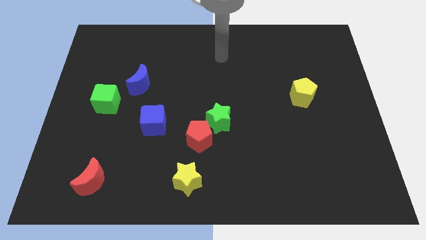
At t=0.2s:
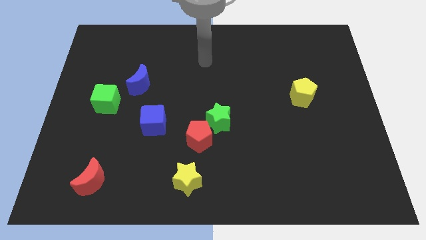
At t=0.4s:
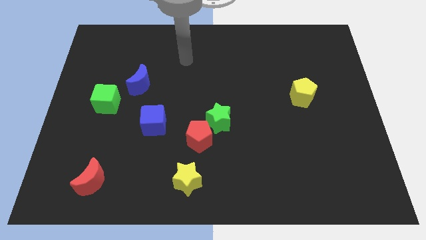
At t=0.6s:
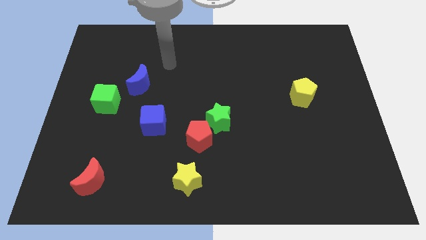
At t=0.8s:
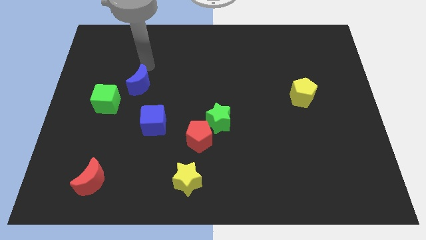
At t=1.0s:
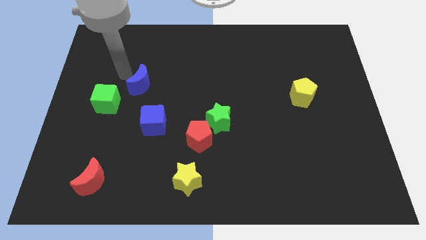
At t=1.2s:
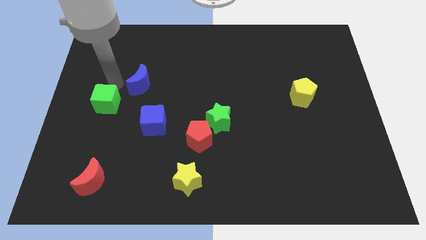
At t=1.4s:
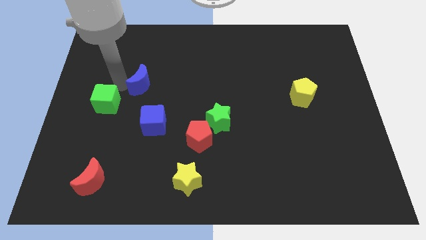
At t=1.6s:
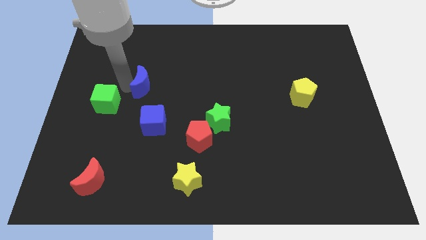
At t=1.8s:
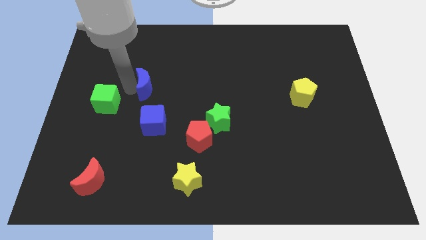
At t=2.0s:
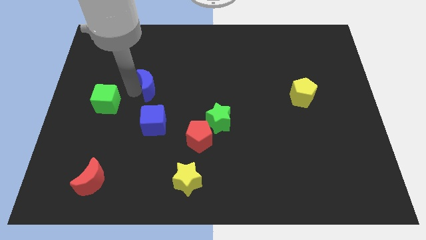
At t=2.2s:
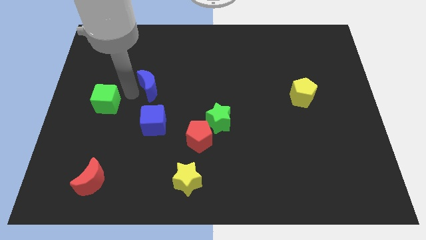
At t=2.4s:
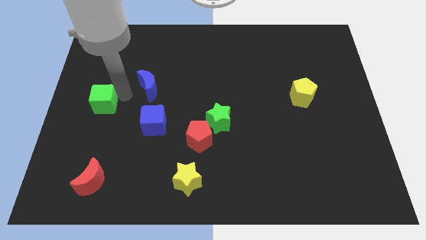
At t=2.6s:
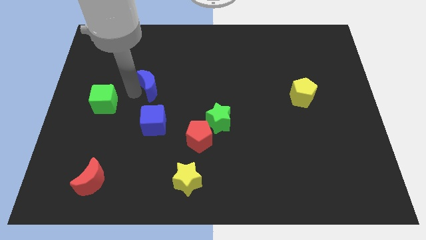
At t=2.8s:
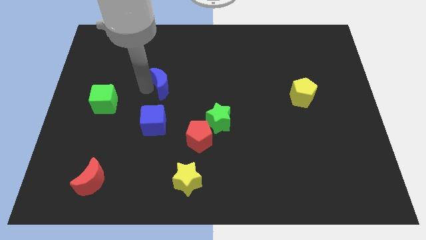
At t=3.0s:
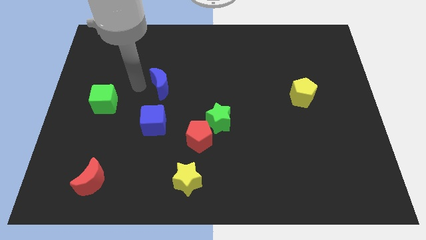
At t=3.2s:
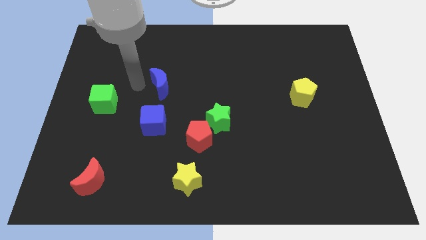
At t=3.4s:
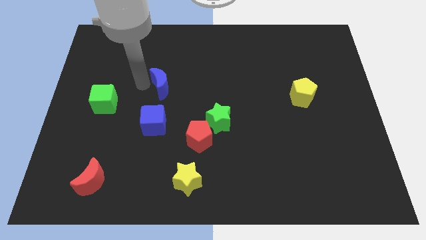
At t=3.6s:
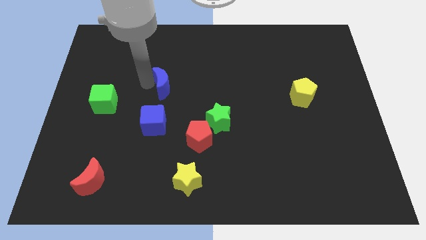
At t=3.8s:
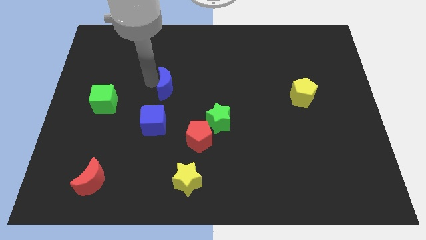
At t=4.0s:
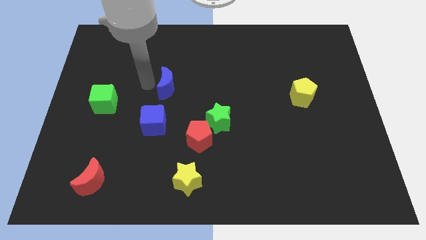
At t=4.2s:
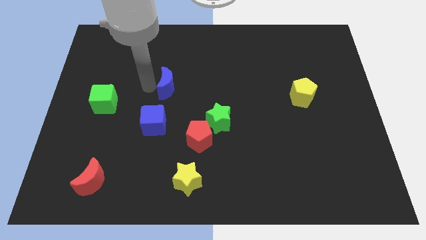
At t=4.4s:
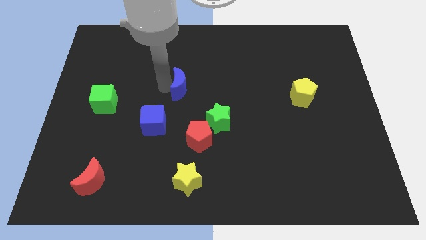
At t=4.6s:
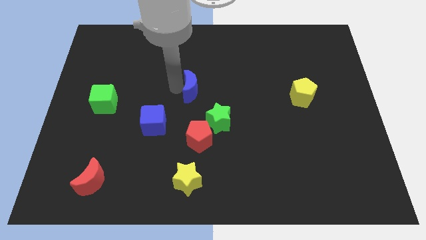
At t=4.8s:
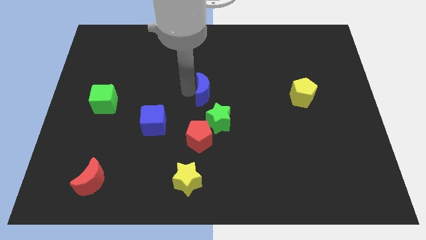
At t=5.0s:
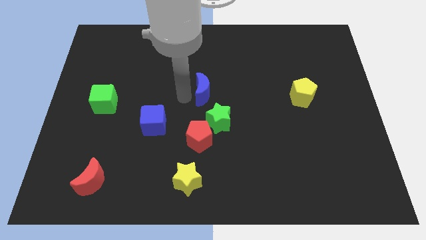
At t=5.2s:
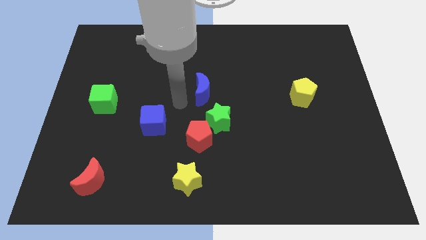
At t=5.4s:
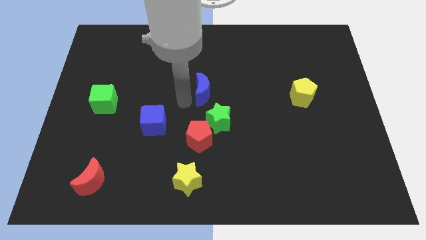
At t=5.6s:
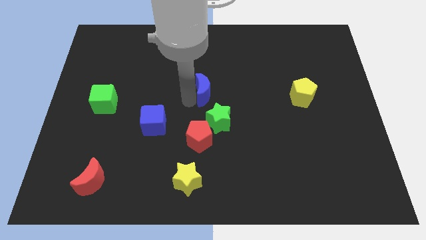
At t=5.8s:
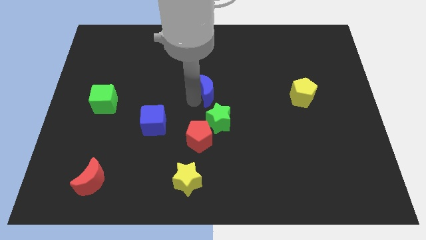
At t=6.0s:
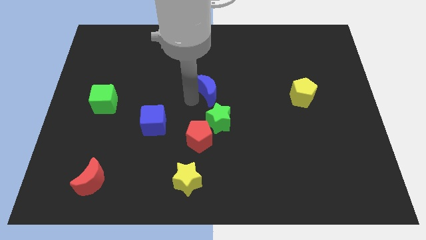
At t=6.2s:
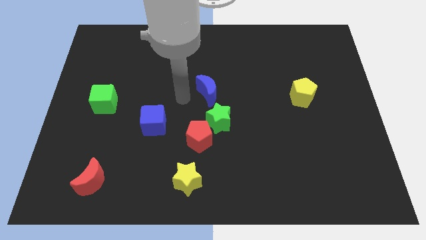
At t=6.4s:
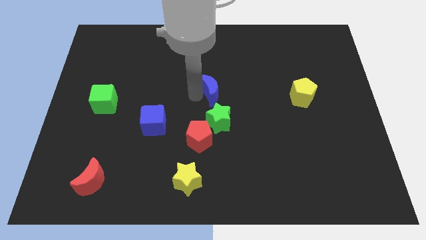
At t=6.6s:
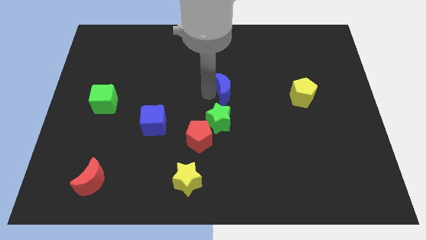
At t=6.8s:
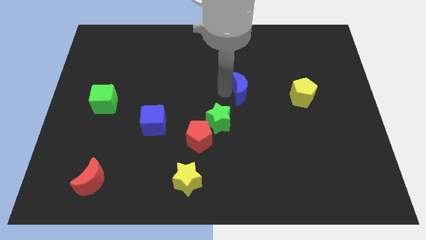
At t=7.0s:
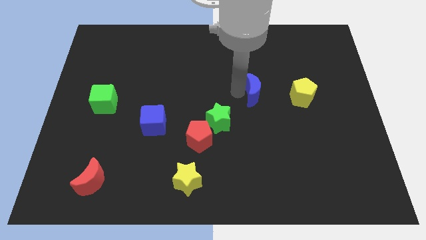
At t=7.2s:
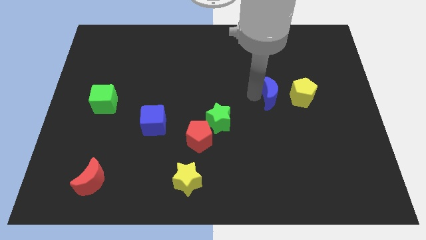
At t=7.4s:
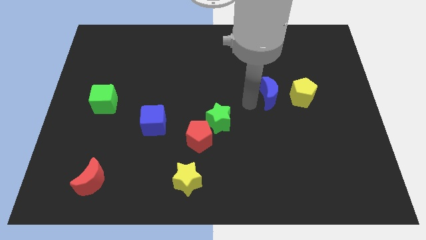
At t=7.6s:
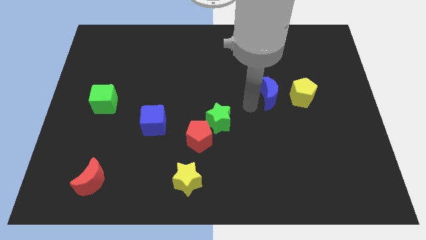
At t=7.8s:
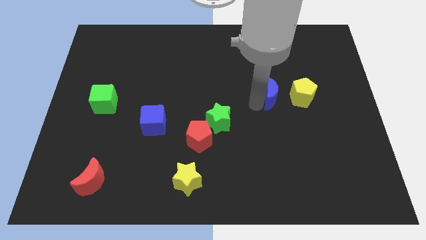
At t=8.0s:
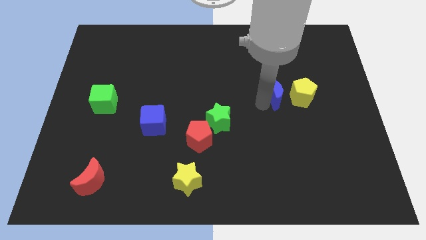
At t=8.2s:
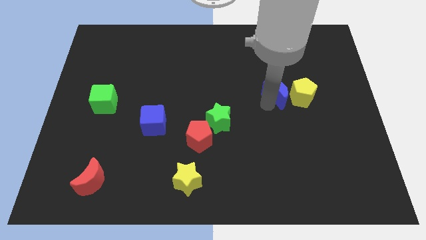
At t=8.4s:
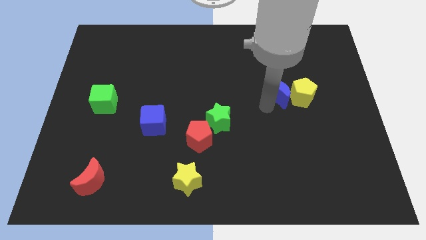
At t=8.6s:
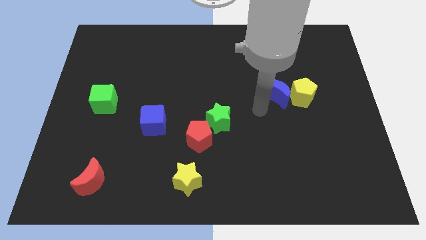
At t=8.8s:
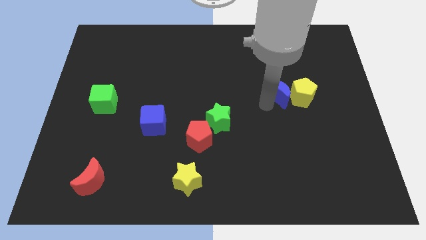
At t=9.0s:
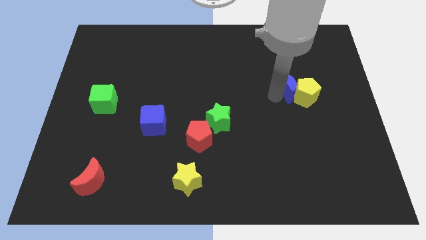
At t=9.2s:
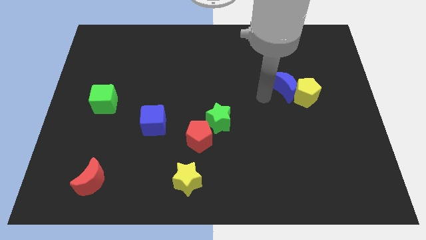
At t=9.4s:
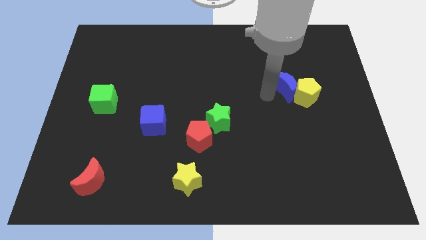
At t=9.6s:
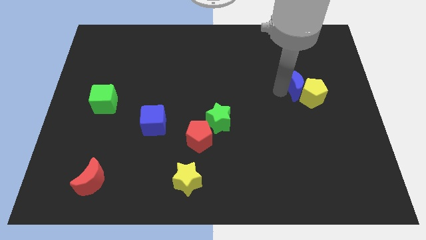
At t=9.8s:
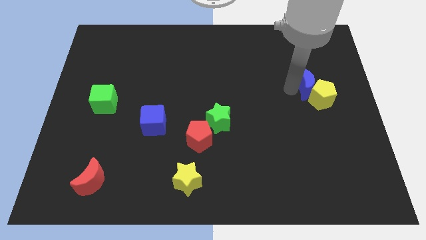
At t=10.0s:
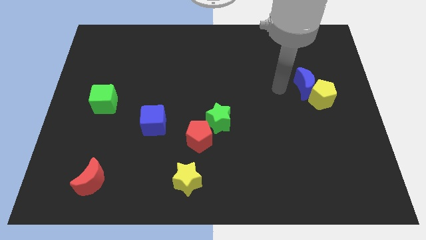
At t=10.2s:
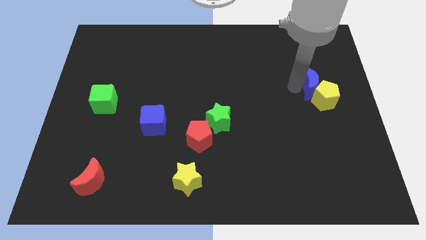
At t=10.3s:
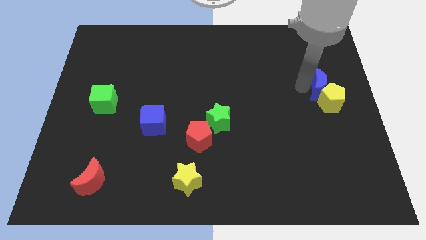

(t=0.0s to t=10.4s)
slide the blue moon to the center right

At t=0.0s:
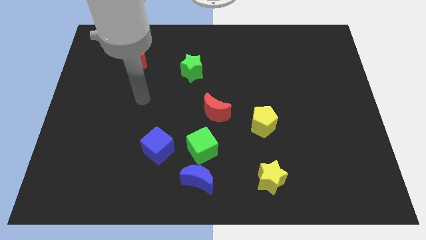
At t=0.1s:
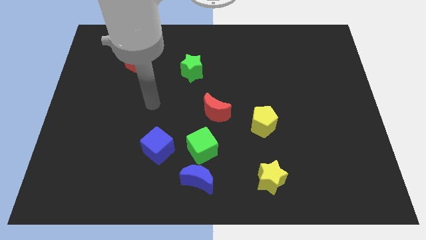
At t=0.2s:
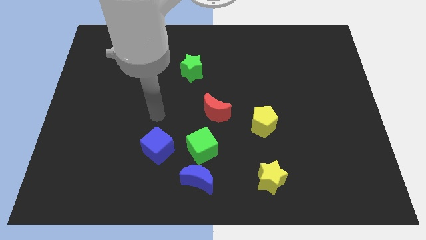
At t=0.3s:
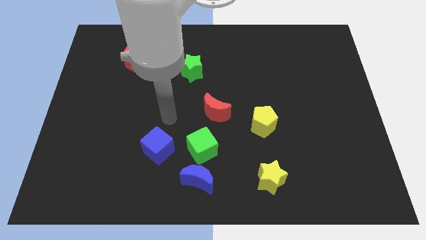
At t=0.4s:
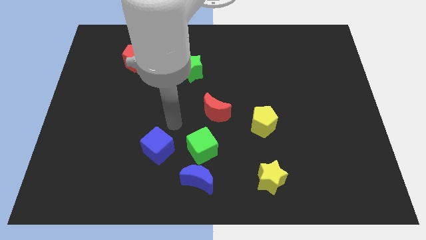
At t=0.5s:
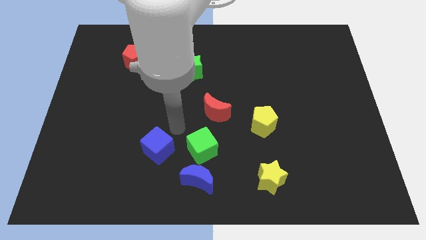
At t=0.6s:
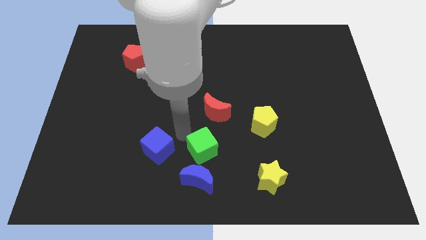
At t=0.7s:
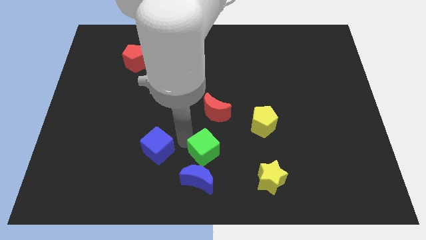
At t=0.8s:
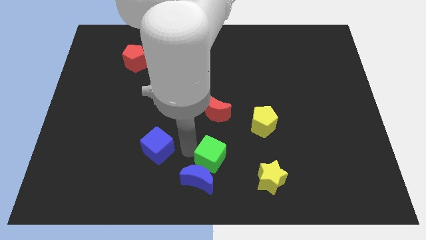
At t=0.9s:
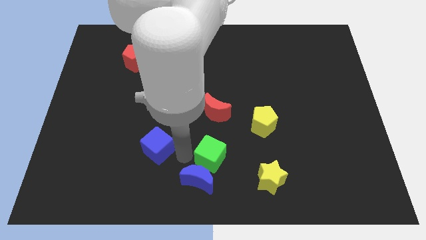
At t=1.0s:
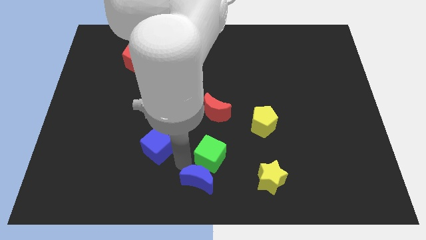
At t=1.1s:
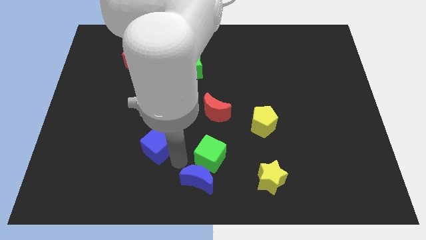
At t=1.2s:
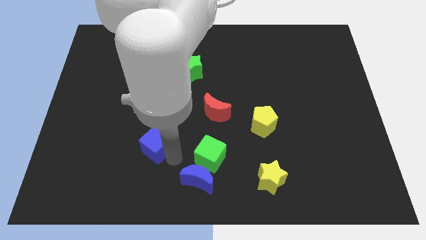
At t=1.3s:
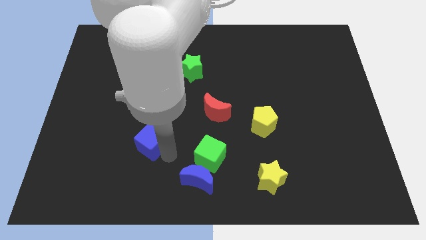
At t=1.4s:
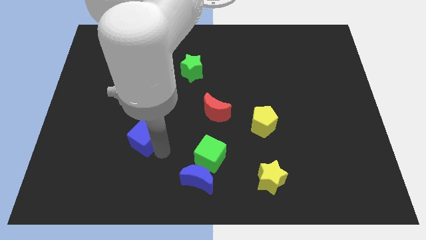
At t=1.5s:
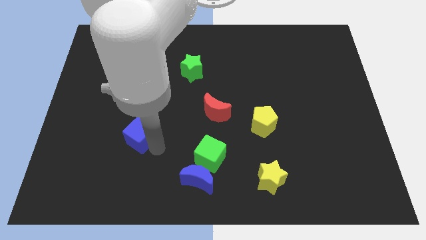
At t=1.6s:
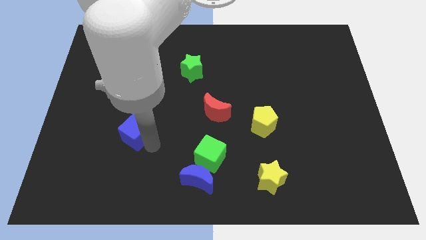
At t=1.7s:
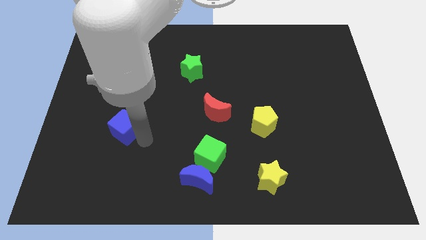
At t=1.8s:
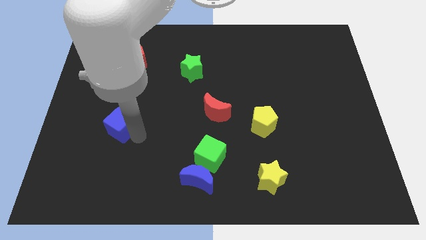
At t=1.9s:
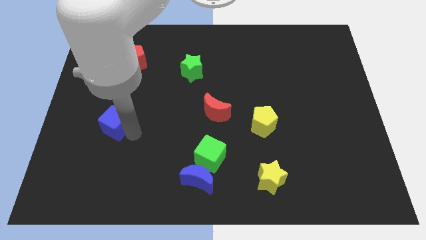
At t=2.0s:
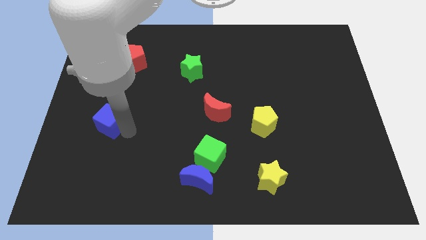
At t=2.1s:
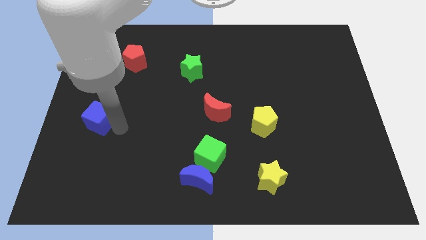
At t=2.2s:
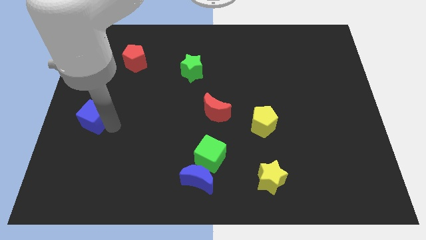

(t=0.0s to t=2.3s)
slide the blue cube to the left side
